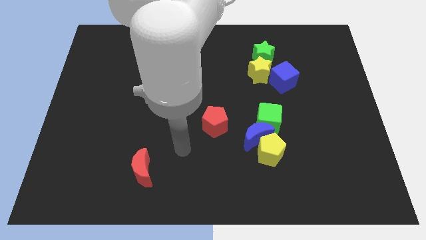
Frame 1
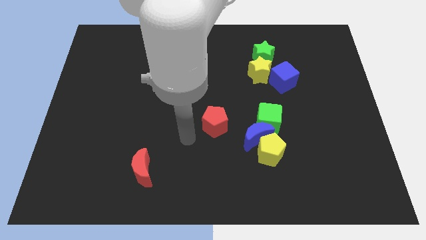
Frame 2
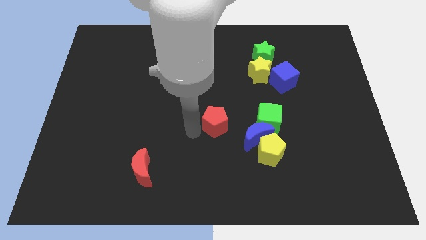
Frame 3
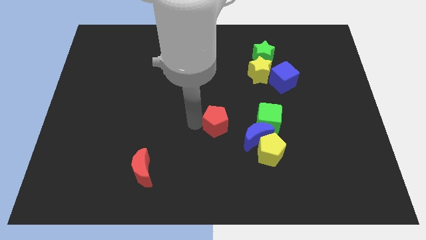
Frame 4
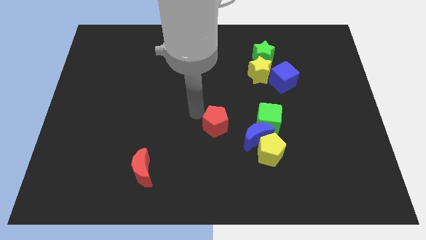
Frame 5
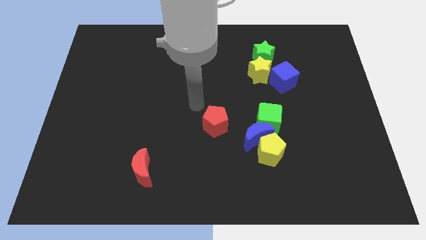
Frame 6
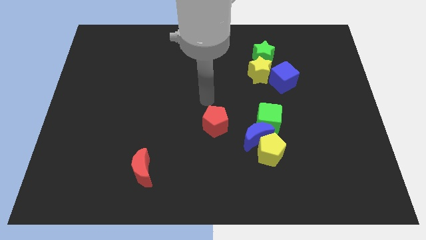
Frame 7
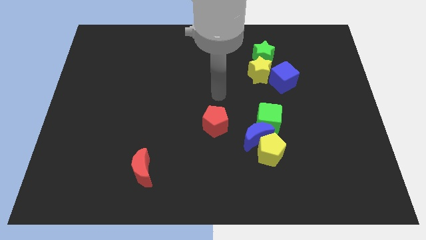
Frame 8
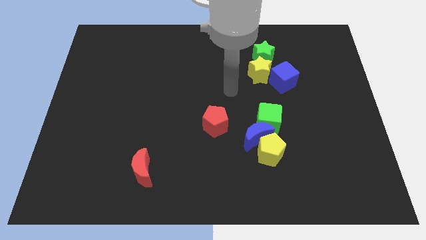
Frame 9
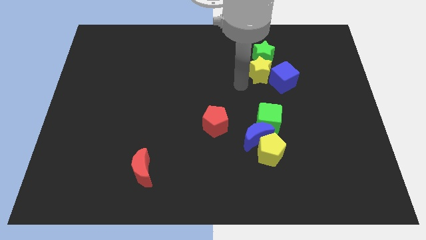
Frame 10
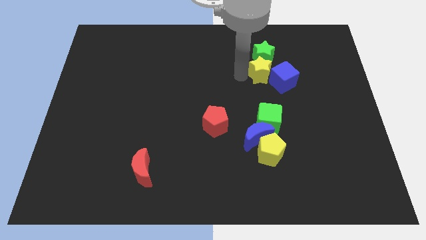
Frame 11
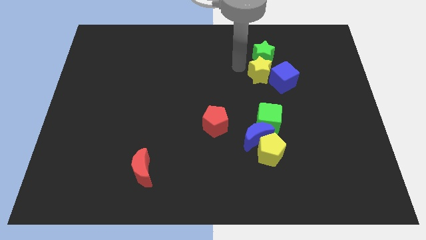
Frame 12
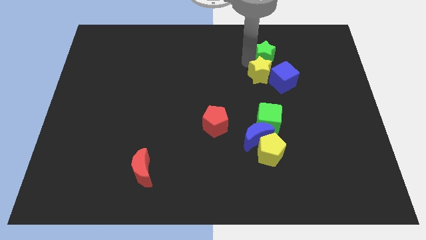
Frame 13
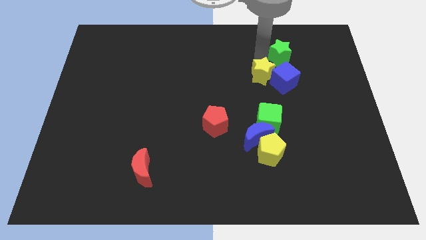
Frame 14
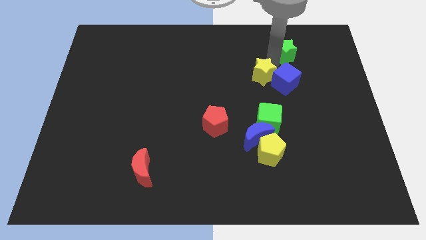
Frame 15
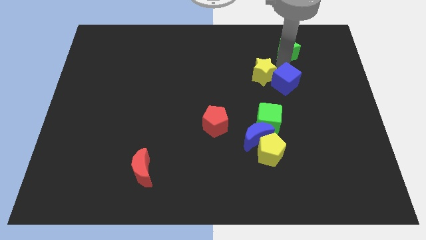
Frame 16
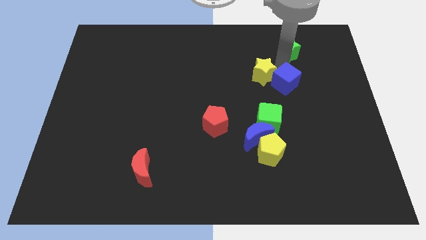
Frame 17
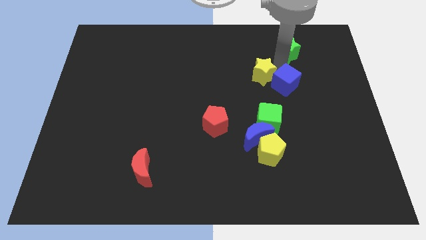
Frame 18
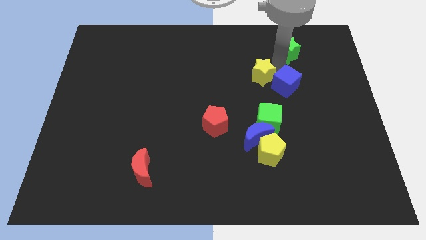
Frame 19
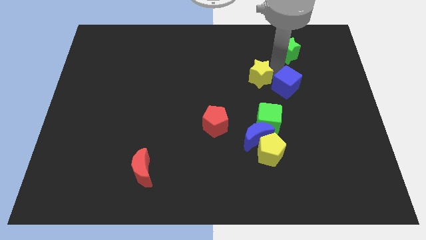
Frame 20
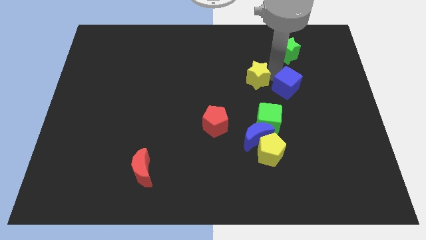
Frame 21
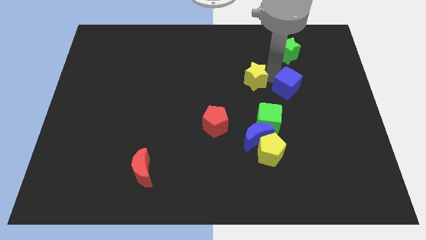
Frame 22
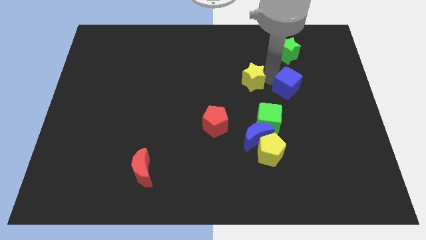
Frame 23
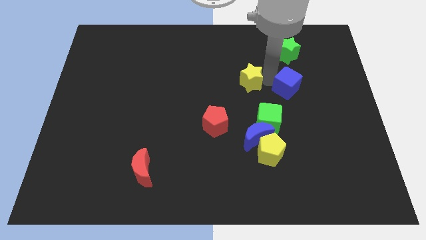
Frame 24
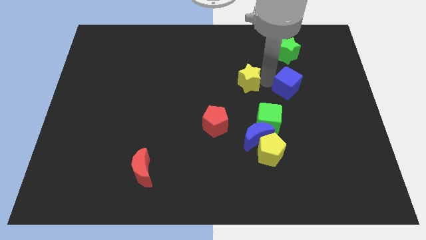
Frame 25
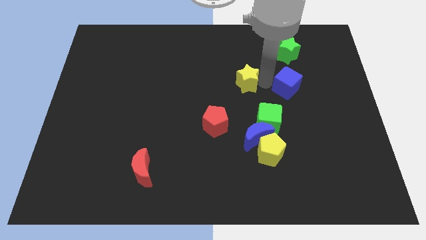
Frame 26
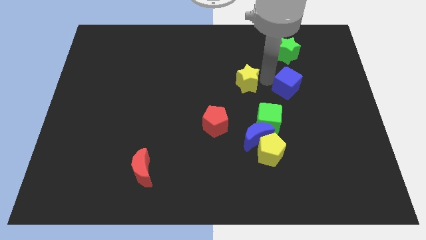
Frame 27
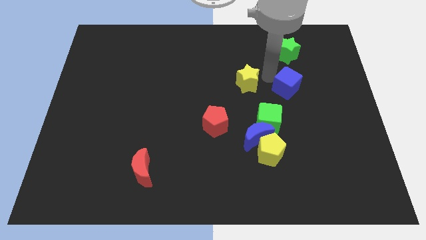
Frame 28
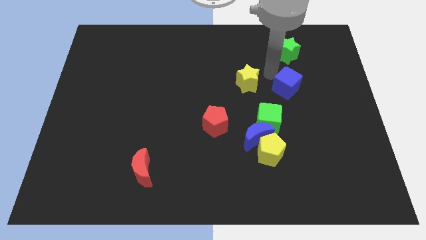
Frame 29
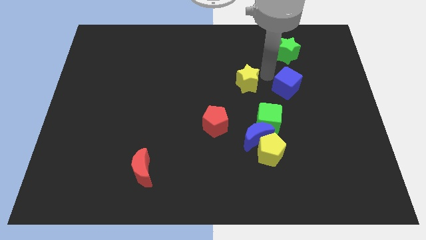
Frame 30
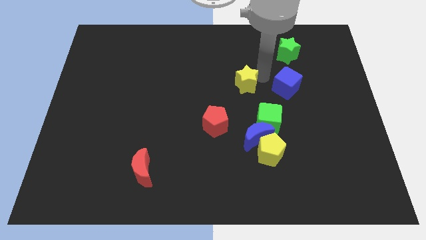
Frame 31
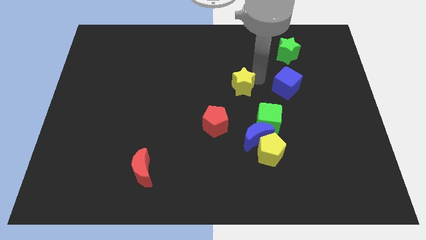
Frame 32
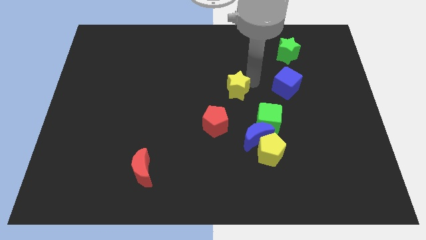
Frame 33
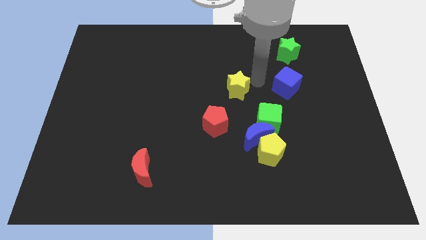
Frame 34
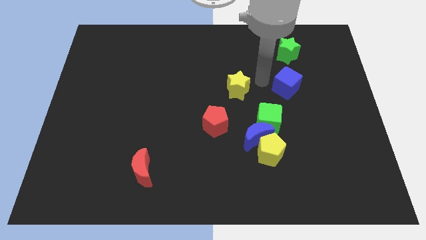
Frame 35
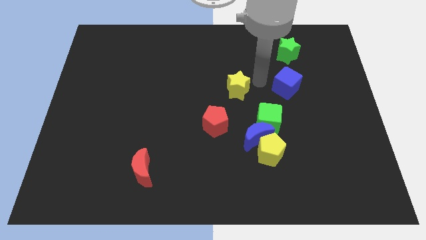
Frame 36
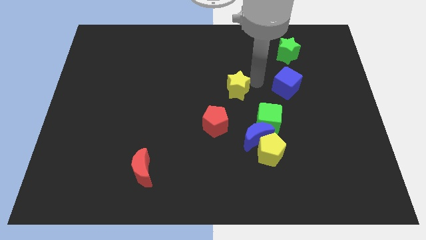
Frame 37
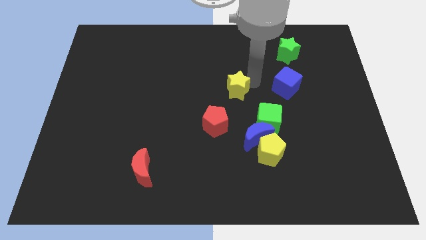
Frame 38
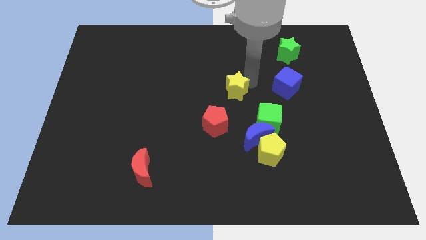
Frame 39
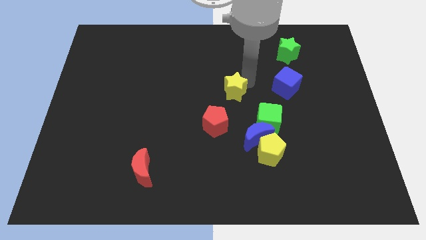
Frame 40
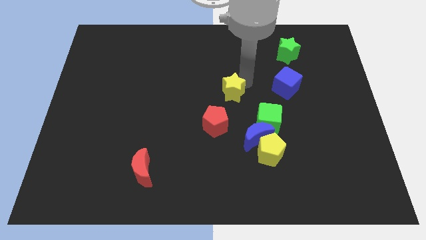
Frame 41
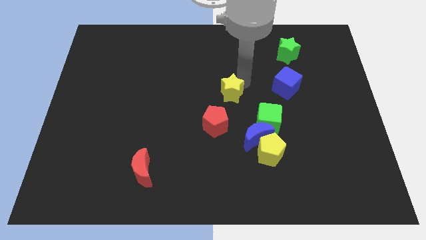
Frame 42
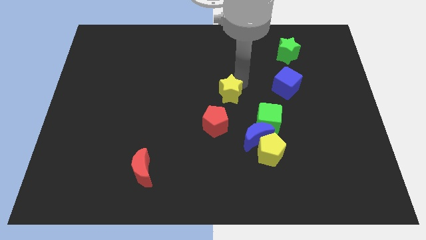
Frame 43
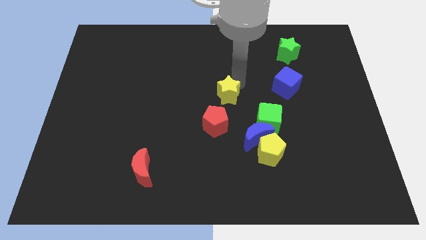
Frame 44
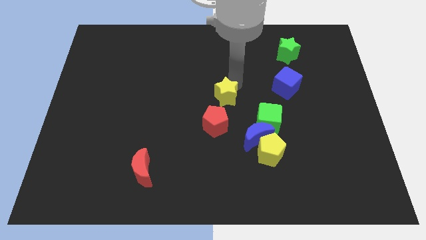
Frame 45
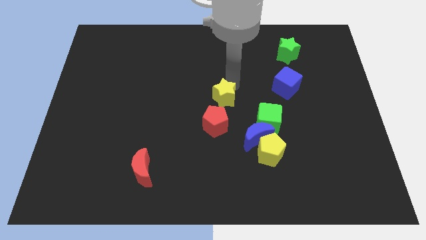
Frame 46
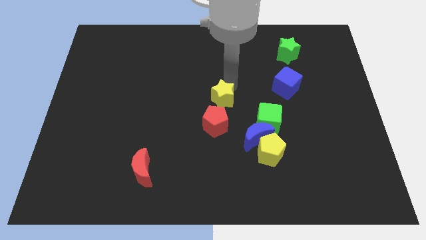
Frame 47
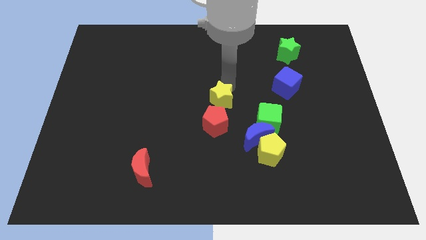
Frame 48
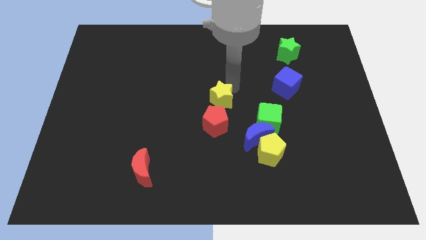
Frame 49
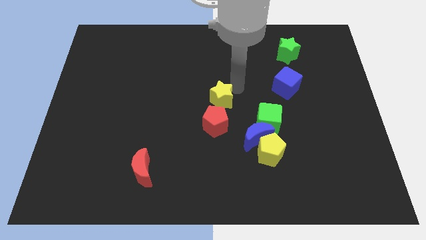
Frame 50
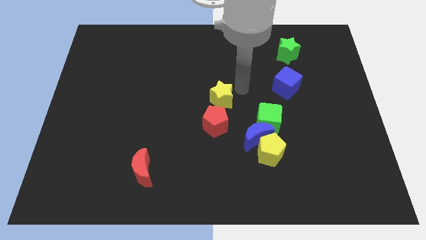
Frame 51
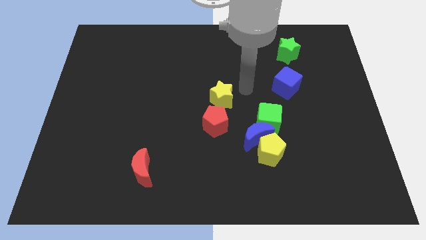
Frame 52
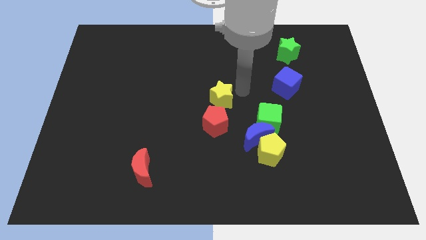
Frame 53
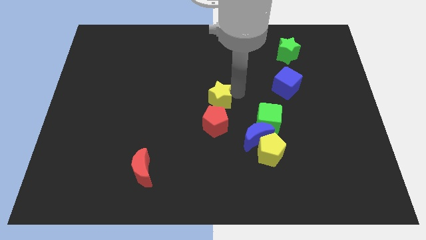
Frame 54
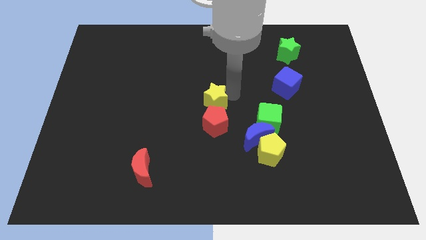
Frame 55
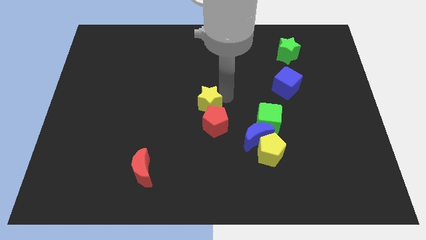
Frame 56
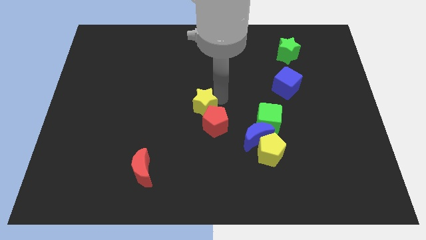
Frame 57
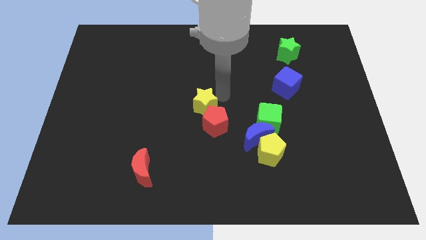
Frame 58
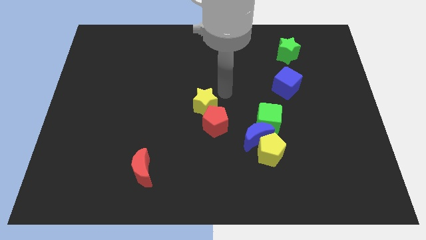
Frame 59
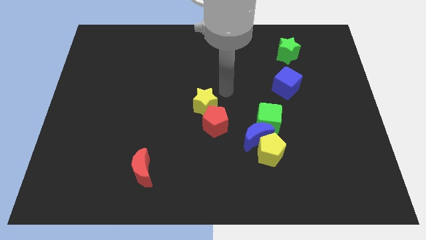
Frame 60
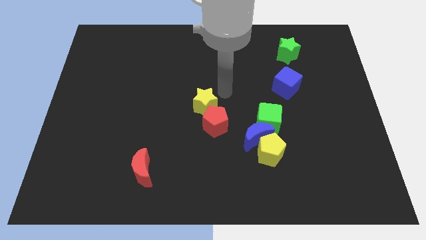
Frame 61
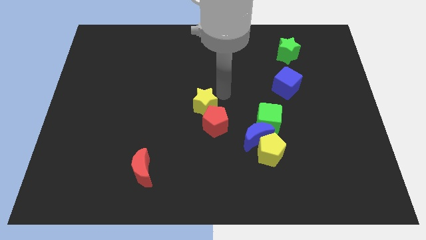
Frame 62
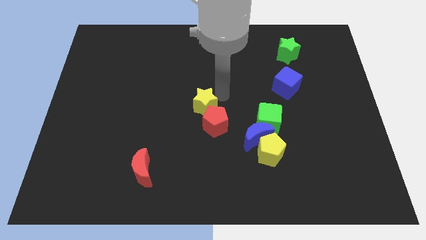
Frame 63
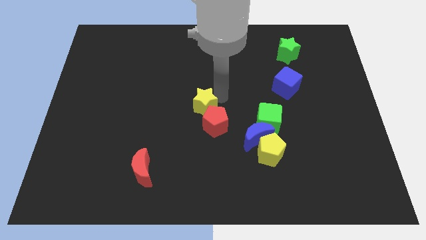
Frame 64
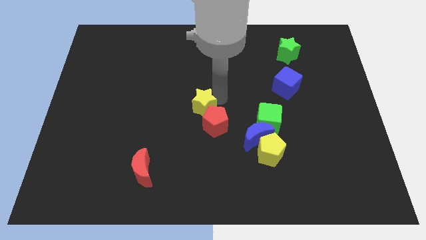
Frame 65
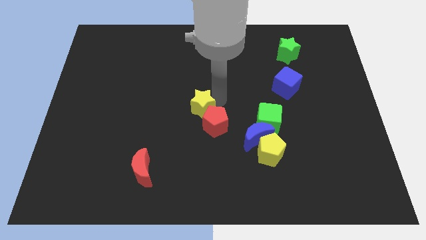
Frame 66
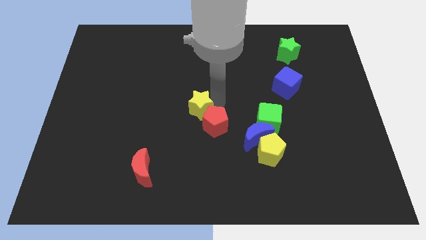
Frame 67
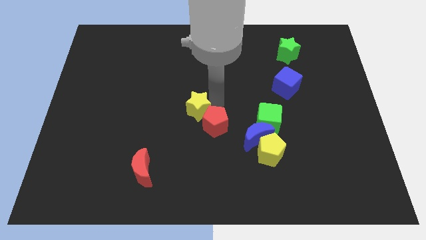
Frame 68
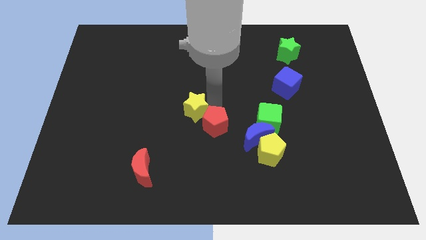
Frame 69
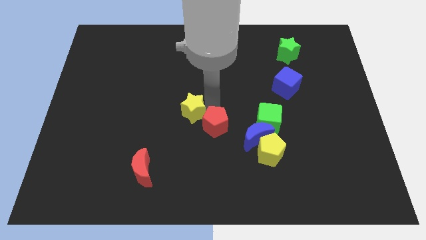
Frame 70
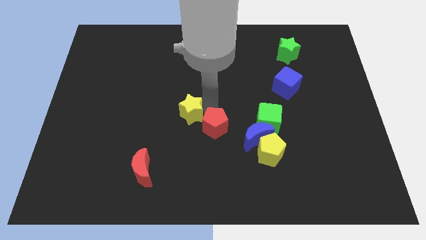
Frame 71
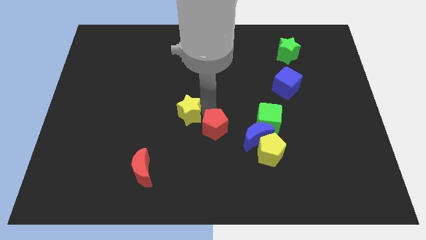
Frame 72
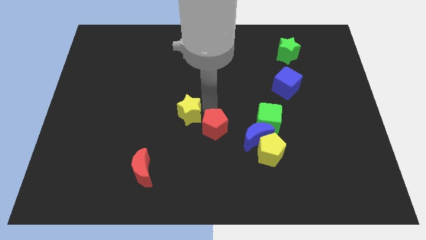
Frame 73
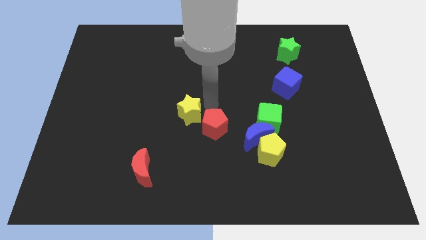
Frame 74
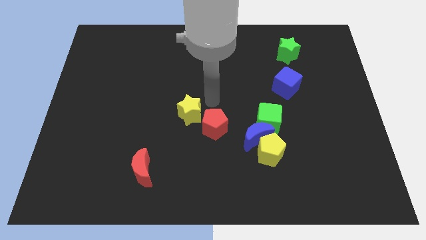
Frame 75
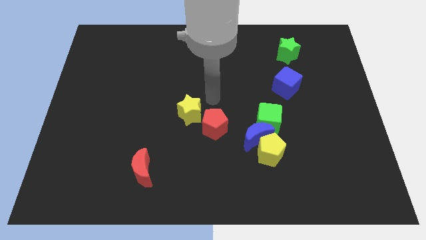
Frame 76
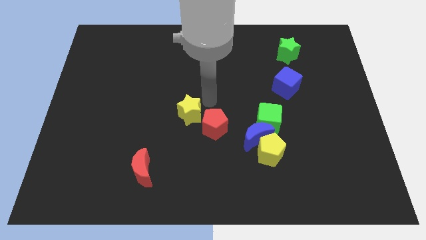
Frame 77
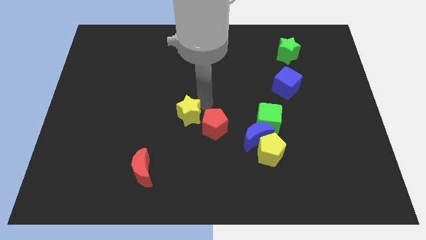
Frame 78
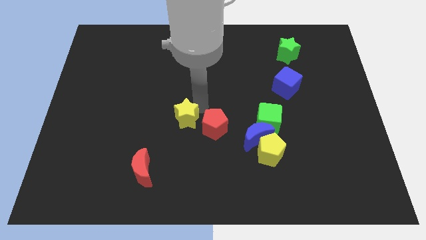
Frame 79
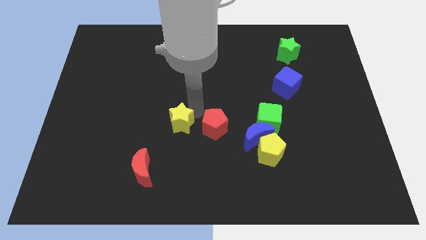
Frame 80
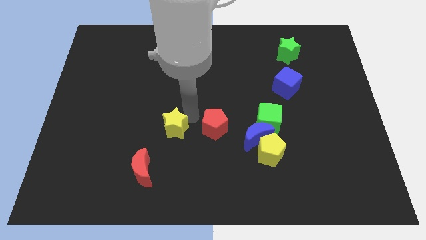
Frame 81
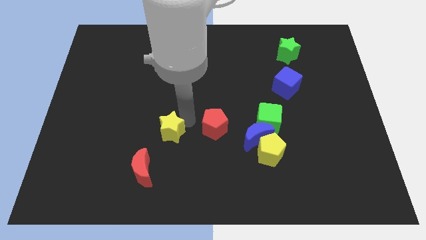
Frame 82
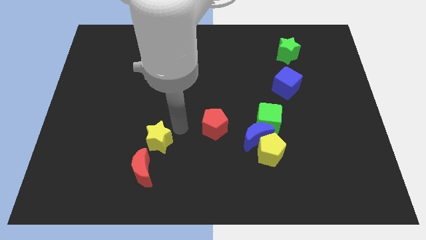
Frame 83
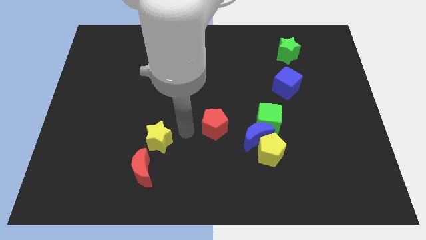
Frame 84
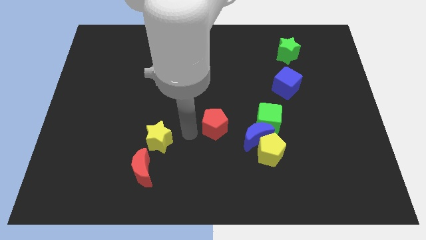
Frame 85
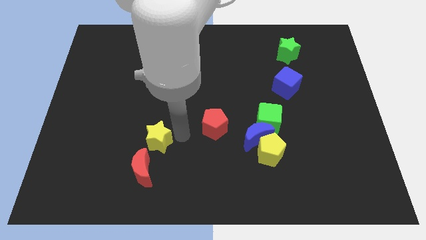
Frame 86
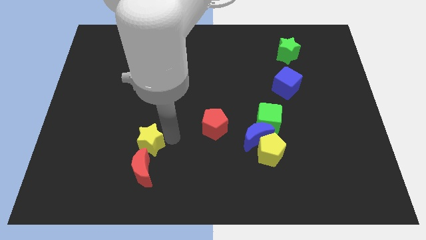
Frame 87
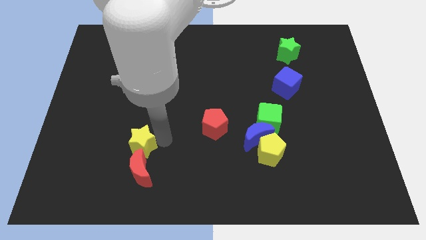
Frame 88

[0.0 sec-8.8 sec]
slide the yellow star to the top left side of the red moon
